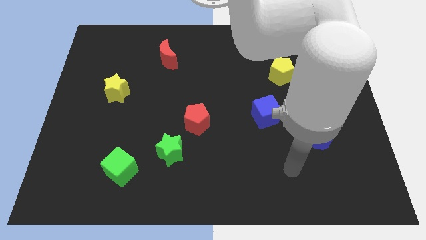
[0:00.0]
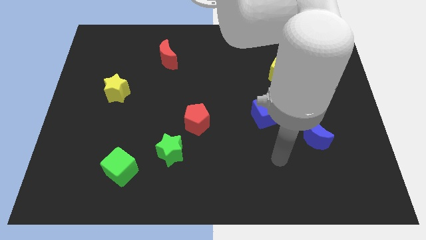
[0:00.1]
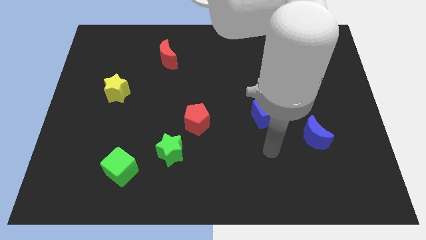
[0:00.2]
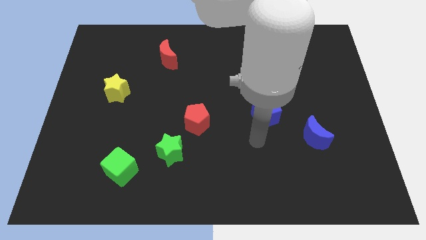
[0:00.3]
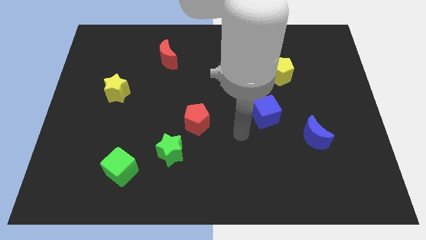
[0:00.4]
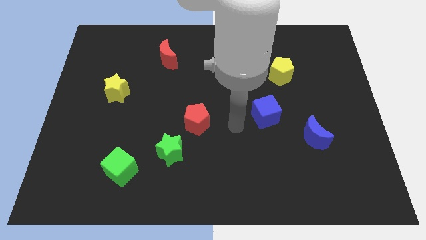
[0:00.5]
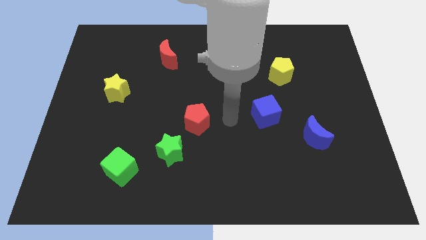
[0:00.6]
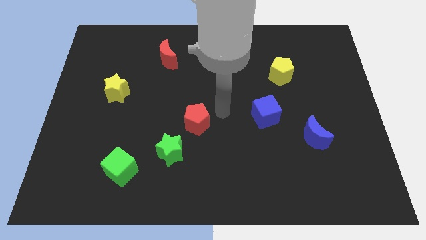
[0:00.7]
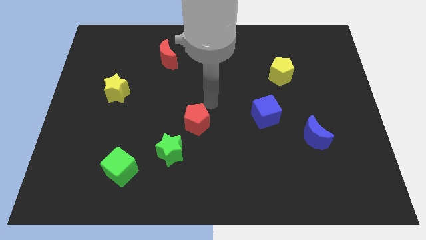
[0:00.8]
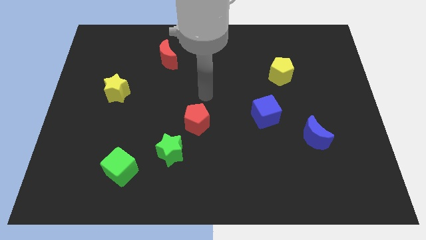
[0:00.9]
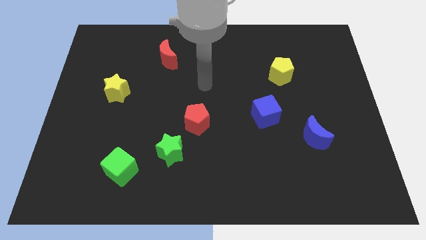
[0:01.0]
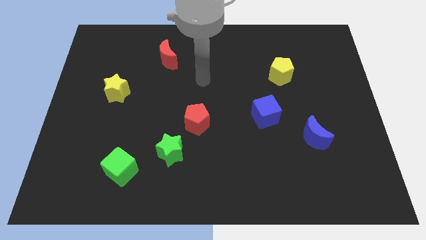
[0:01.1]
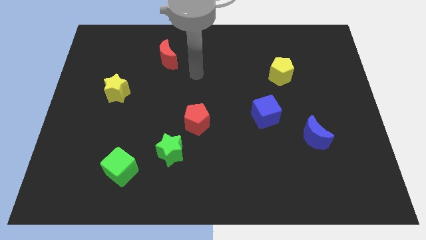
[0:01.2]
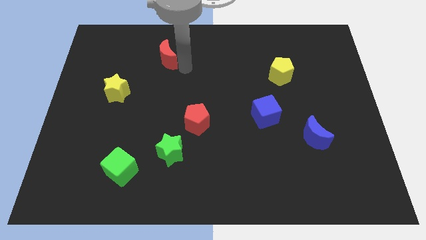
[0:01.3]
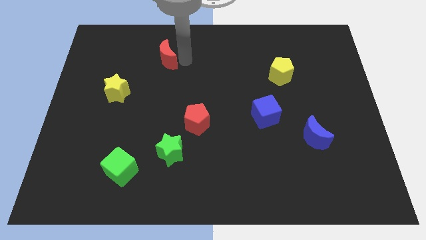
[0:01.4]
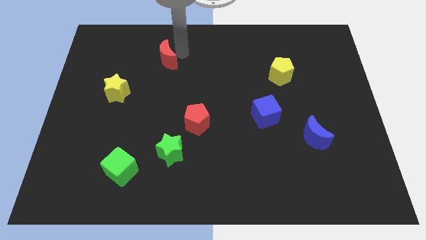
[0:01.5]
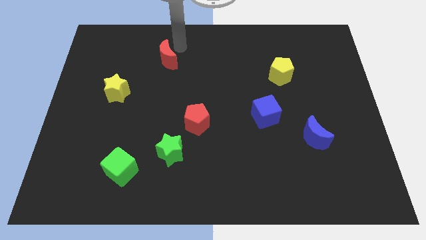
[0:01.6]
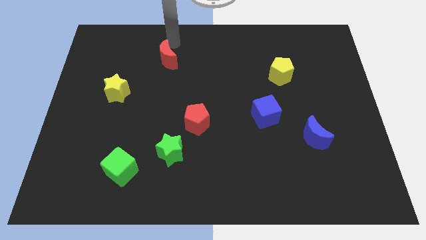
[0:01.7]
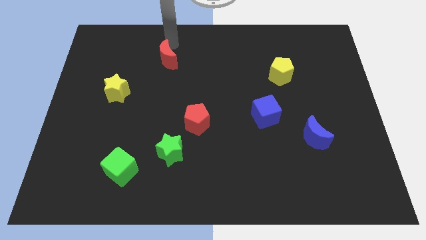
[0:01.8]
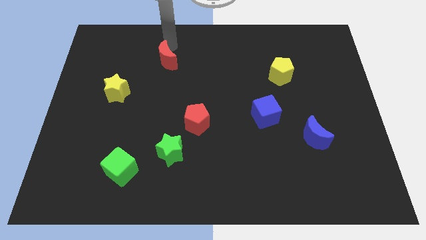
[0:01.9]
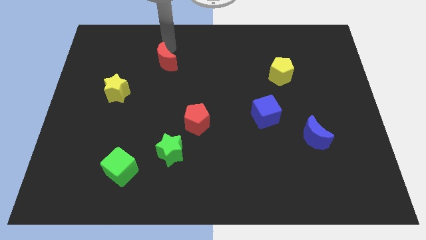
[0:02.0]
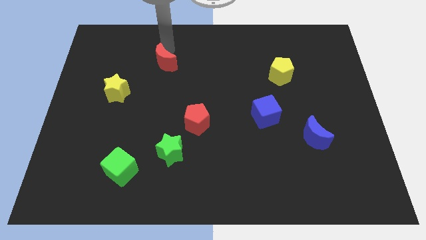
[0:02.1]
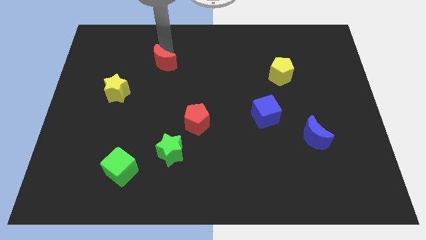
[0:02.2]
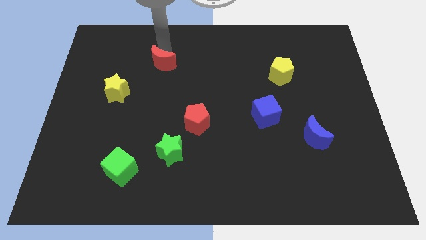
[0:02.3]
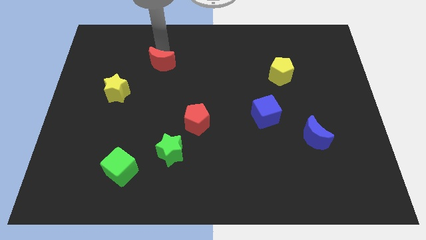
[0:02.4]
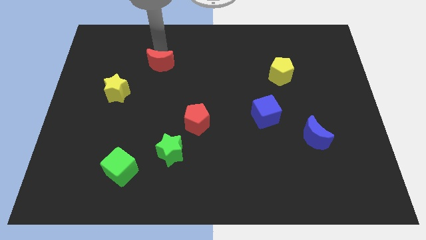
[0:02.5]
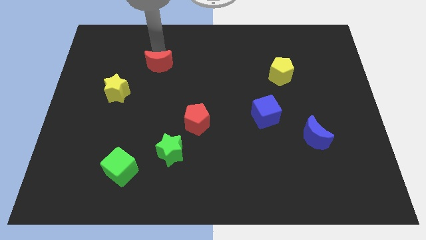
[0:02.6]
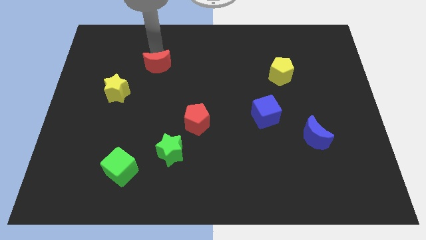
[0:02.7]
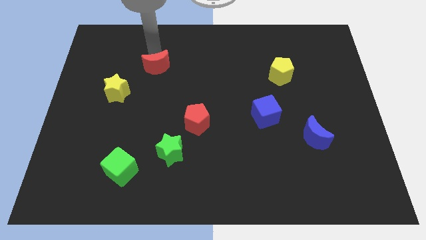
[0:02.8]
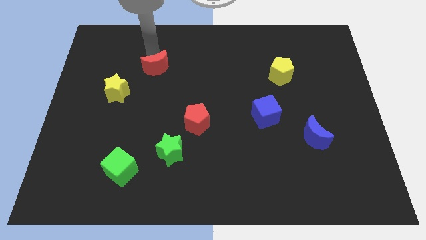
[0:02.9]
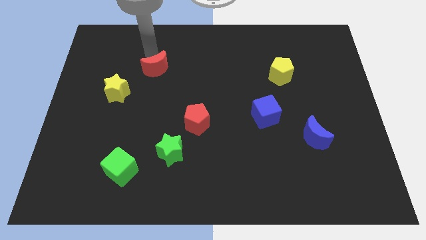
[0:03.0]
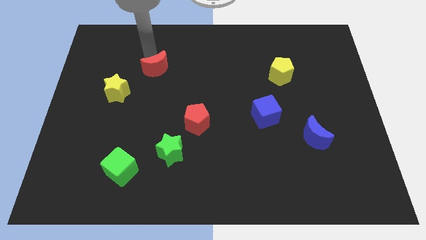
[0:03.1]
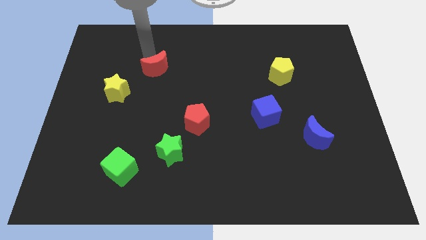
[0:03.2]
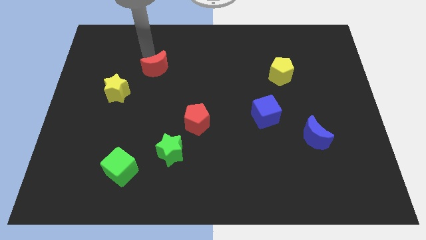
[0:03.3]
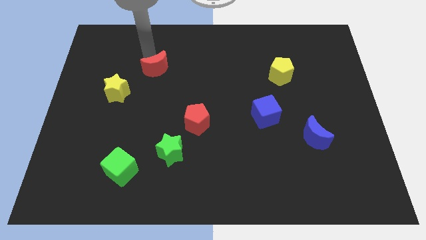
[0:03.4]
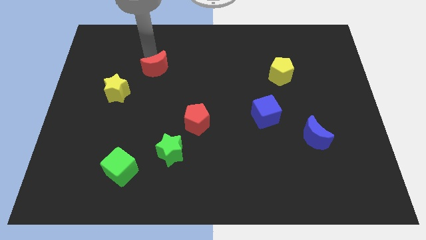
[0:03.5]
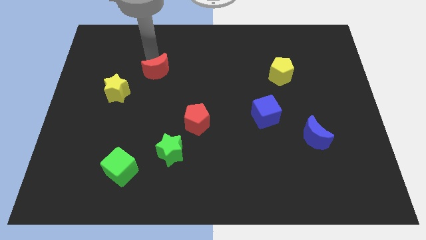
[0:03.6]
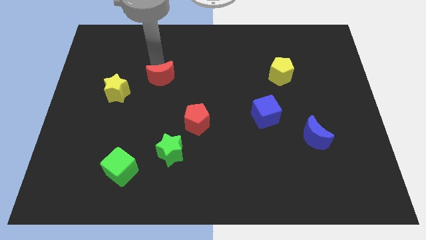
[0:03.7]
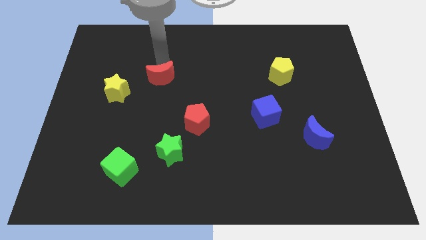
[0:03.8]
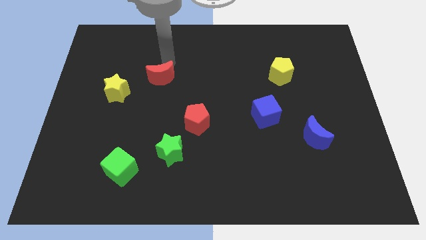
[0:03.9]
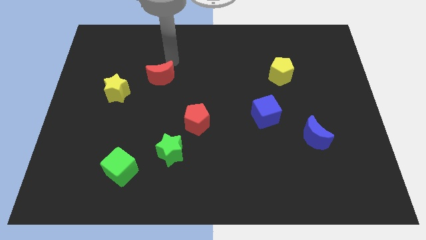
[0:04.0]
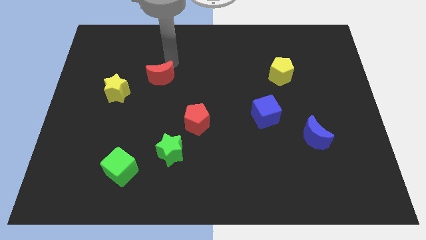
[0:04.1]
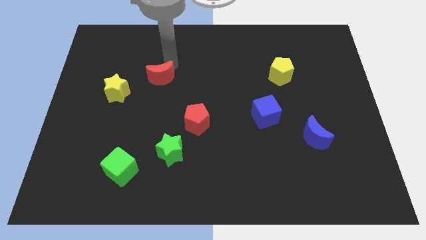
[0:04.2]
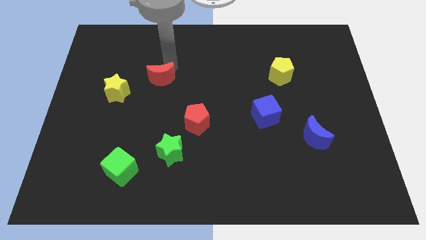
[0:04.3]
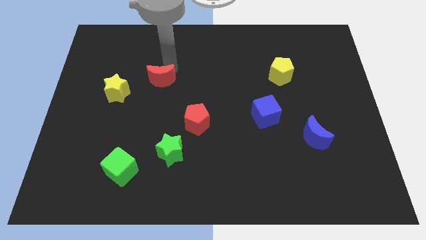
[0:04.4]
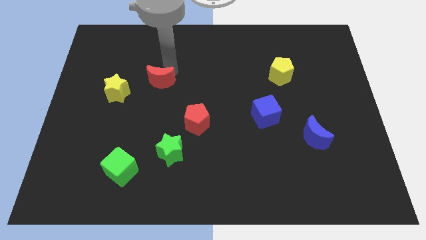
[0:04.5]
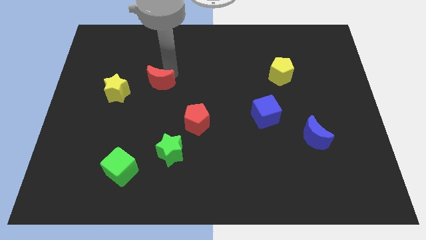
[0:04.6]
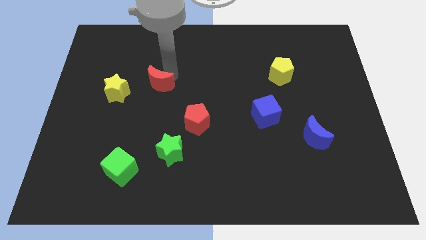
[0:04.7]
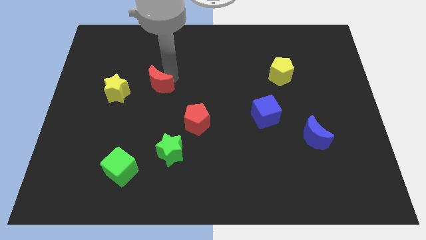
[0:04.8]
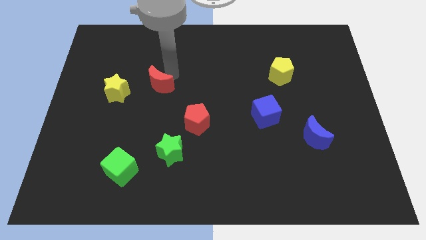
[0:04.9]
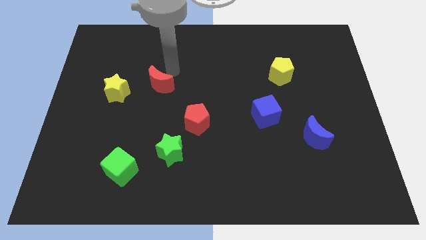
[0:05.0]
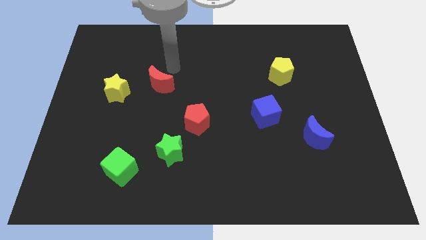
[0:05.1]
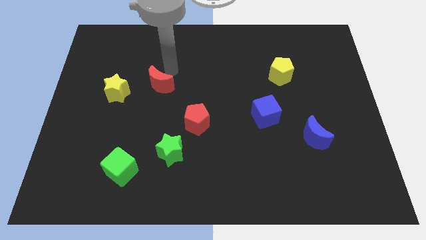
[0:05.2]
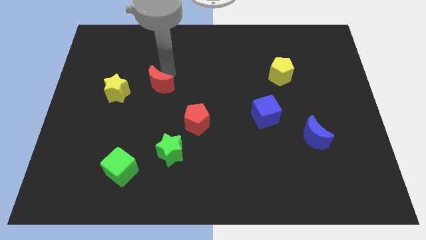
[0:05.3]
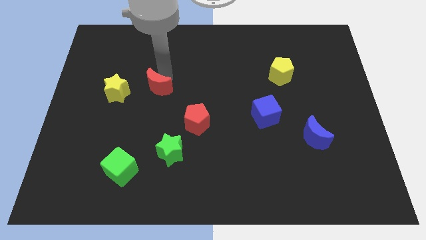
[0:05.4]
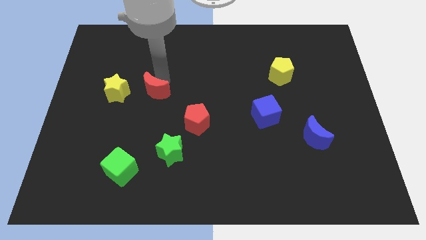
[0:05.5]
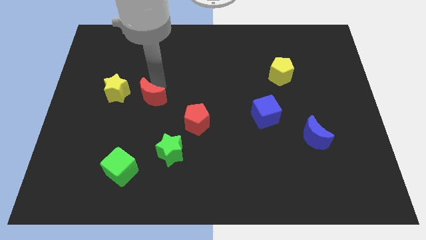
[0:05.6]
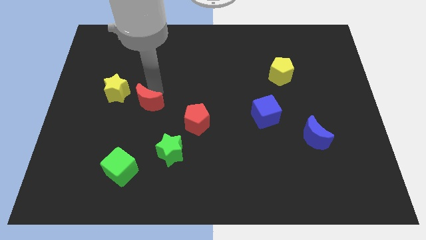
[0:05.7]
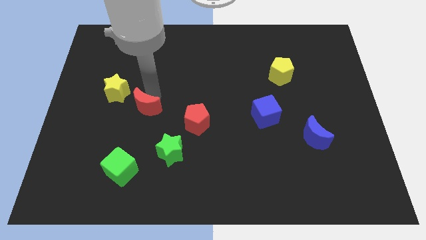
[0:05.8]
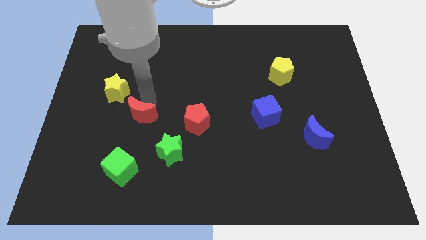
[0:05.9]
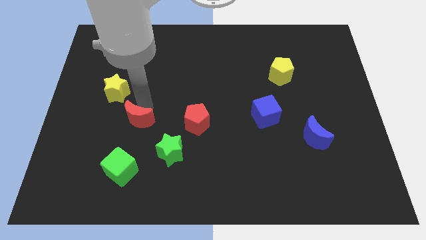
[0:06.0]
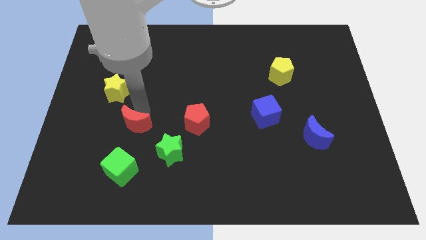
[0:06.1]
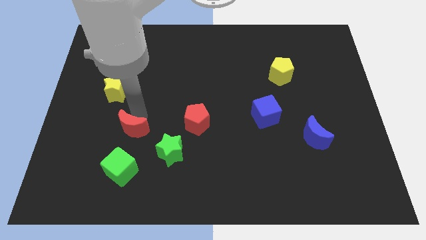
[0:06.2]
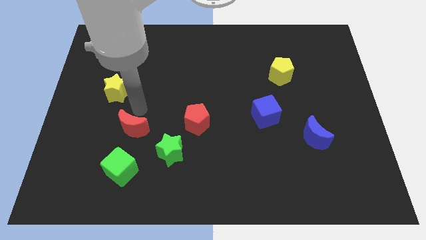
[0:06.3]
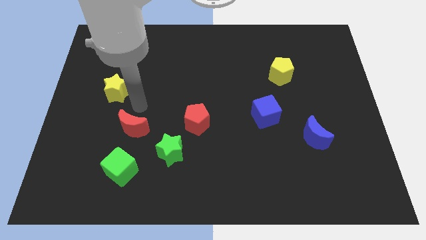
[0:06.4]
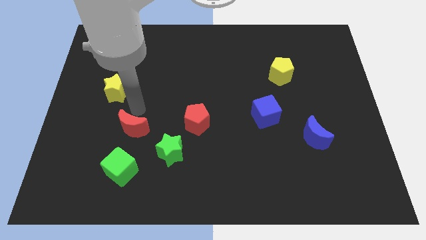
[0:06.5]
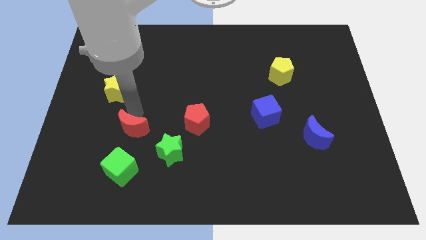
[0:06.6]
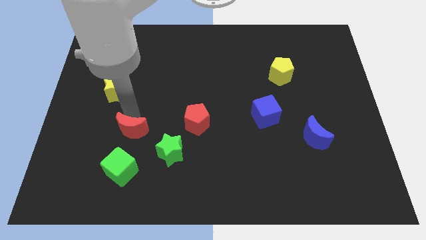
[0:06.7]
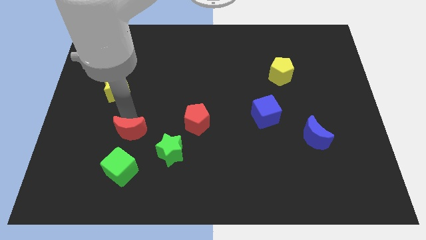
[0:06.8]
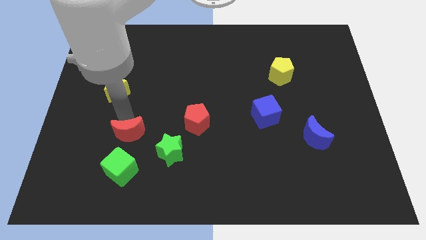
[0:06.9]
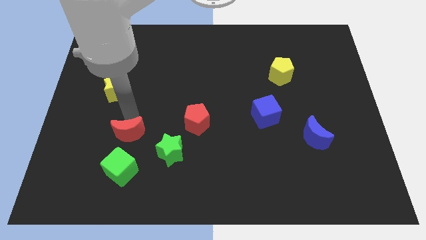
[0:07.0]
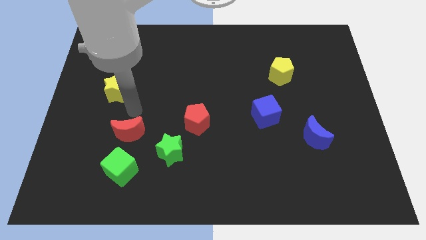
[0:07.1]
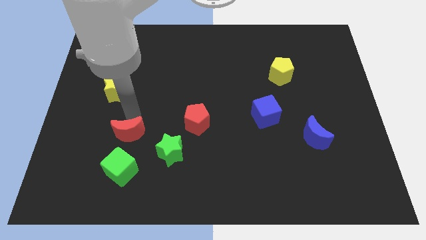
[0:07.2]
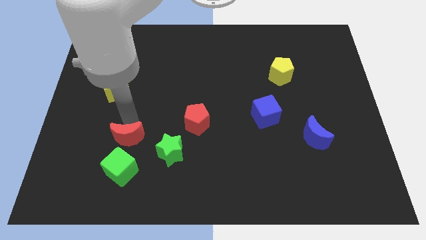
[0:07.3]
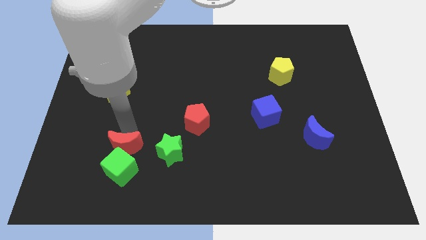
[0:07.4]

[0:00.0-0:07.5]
move the red moon close to the green cube
